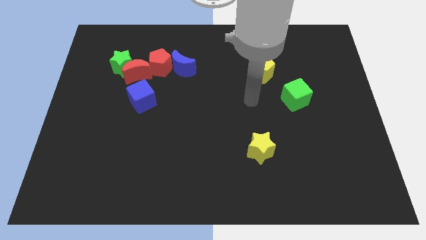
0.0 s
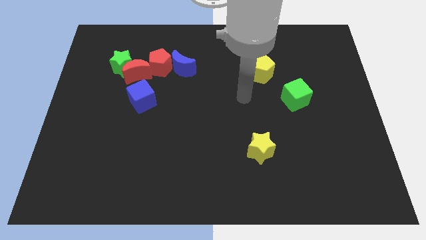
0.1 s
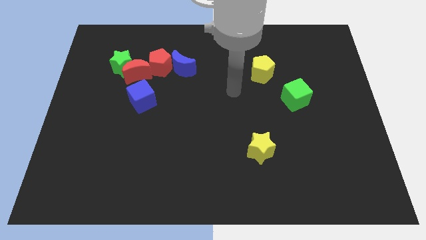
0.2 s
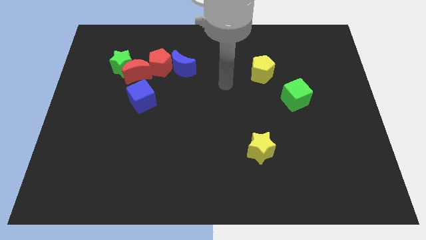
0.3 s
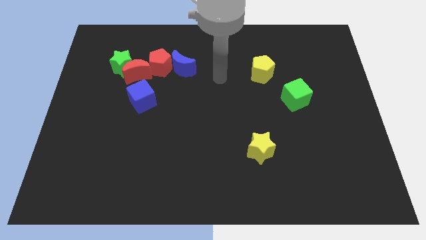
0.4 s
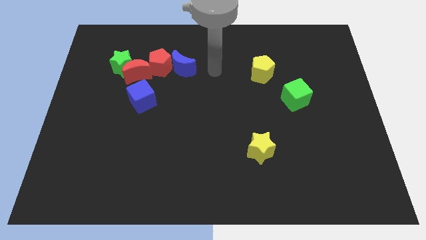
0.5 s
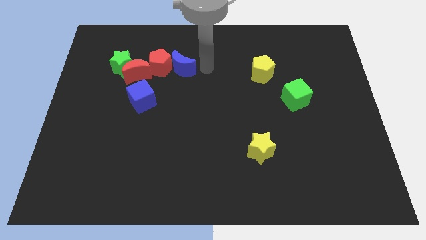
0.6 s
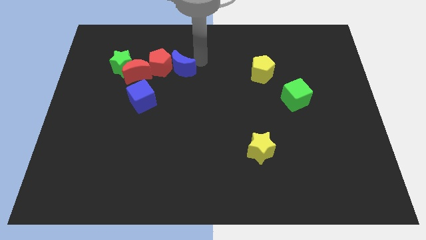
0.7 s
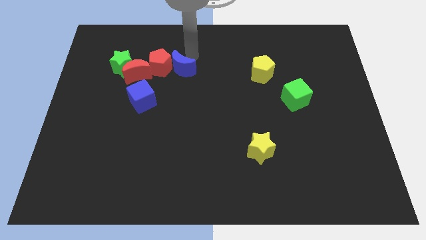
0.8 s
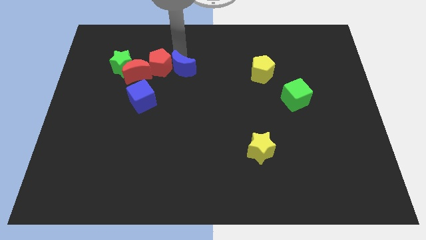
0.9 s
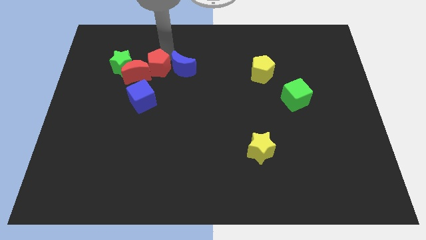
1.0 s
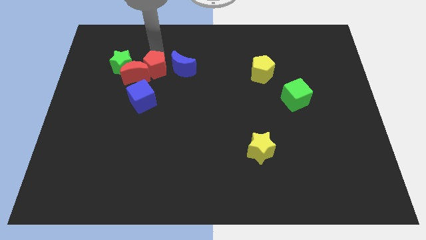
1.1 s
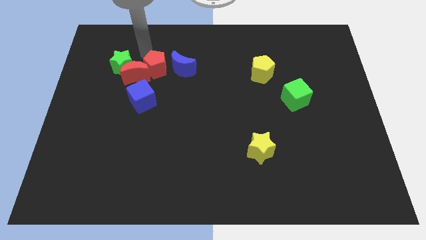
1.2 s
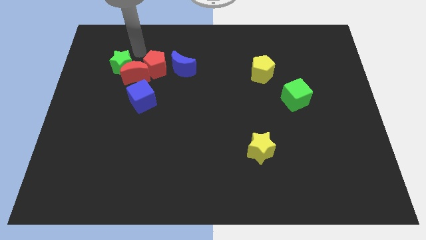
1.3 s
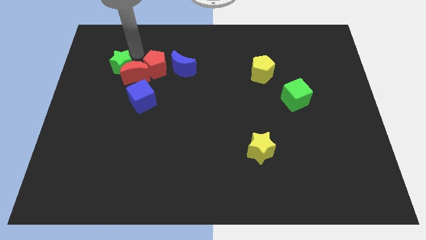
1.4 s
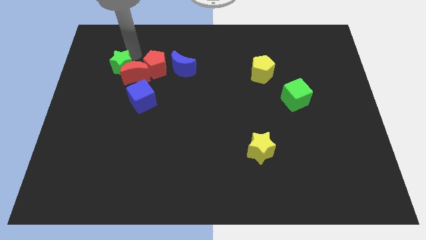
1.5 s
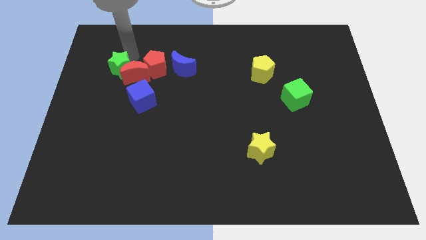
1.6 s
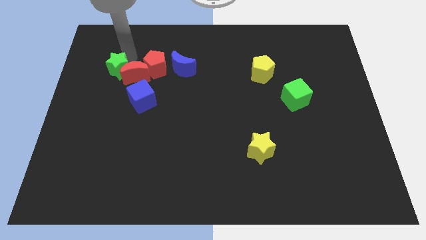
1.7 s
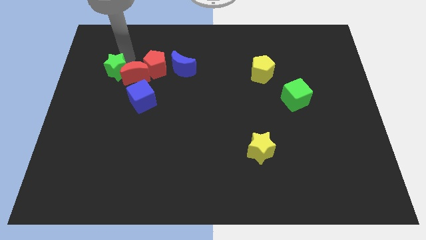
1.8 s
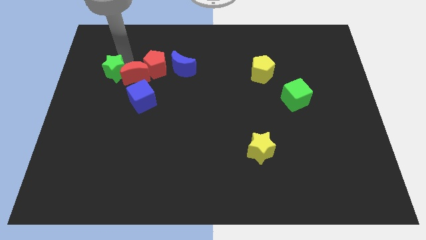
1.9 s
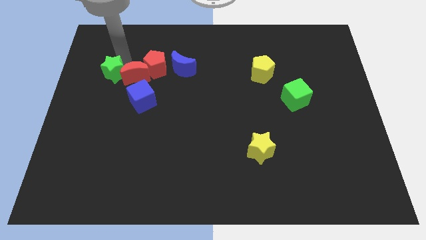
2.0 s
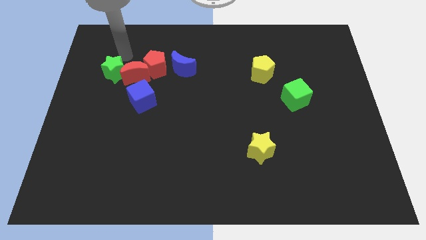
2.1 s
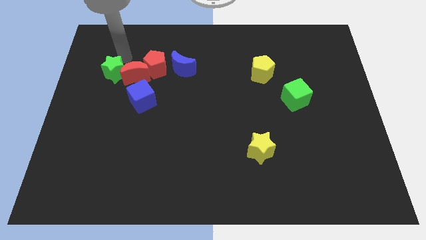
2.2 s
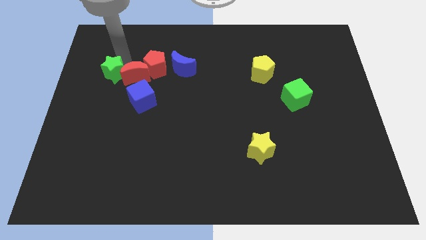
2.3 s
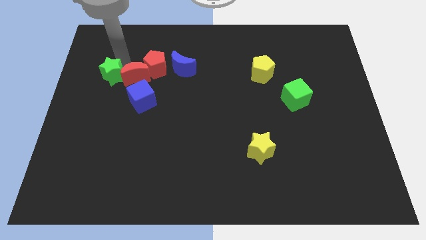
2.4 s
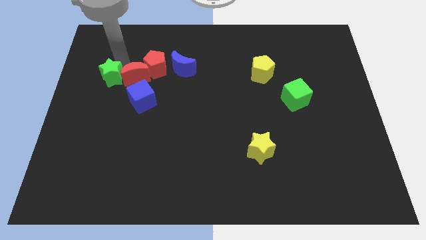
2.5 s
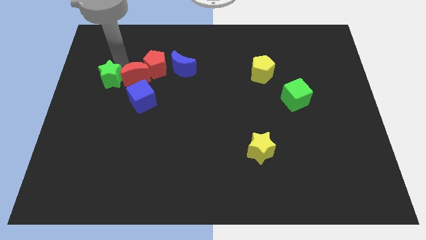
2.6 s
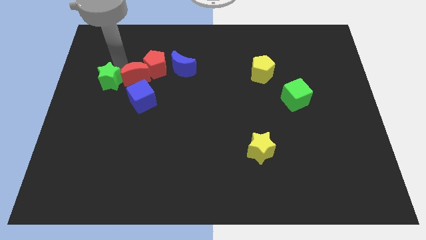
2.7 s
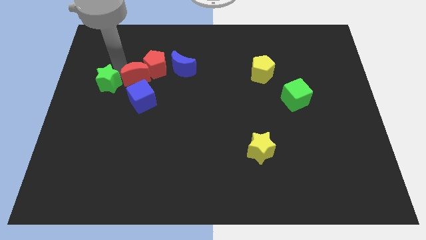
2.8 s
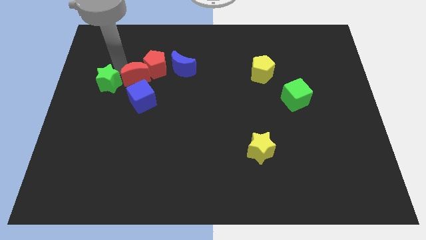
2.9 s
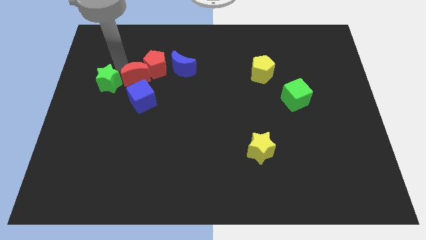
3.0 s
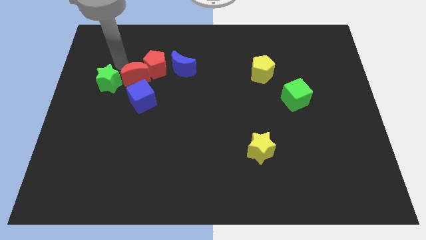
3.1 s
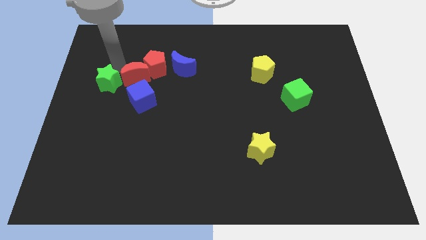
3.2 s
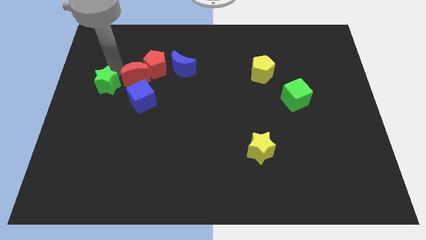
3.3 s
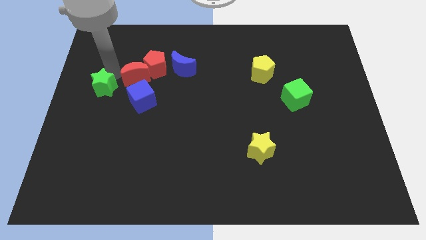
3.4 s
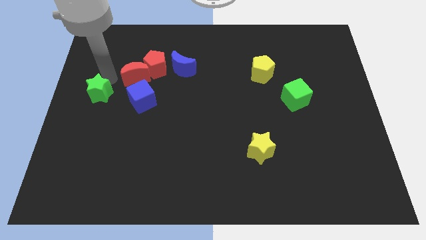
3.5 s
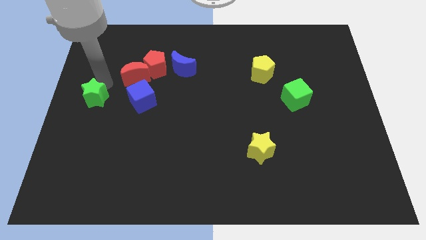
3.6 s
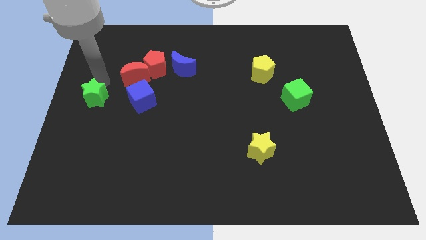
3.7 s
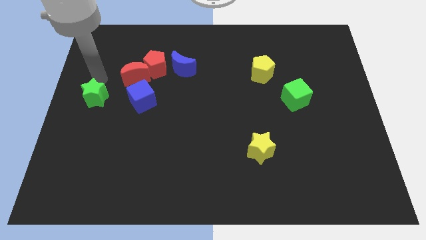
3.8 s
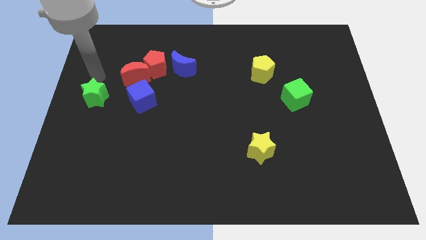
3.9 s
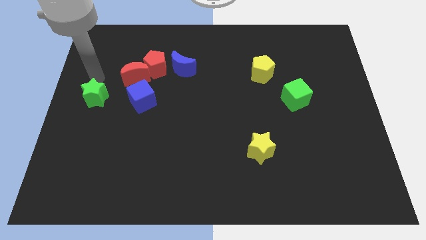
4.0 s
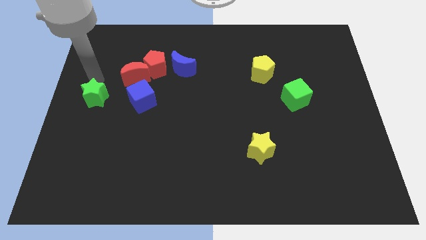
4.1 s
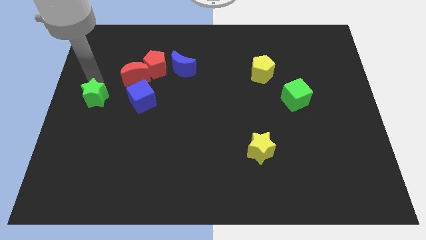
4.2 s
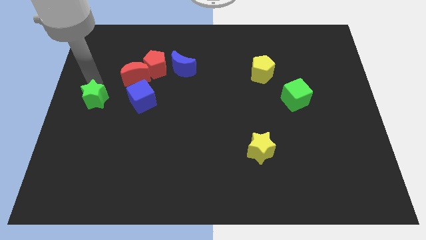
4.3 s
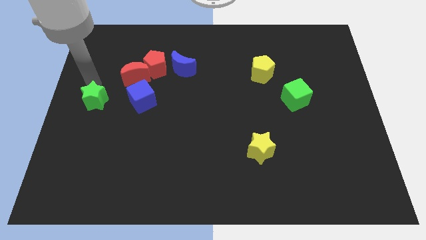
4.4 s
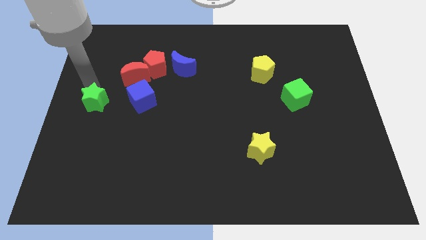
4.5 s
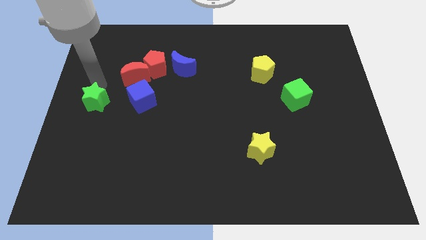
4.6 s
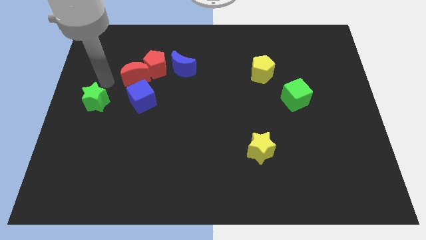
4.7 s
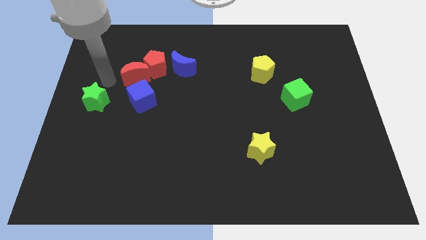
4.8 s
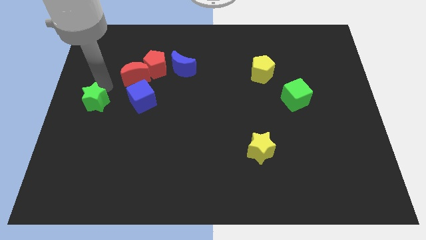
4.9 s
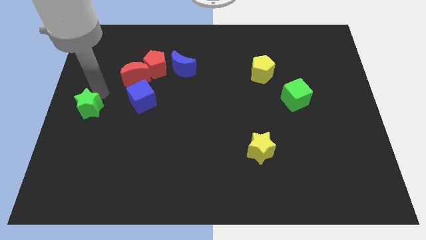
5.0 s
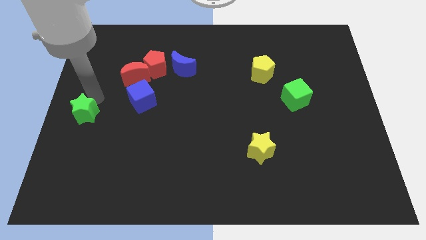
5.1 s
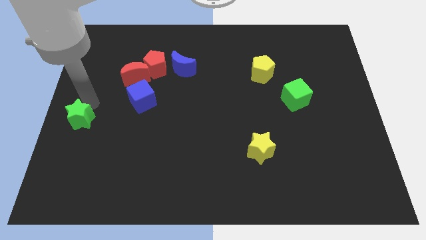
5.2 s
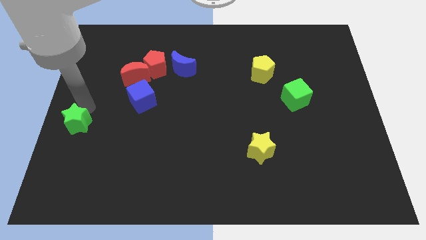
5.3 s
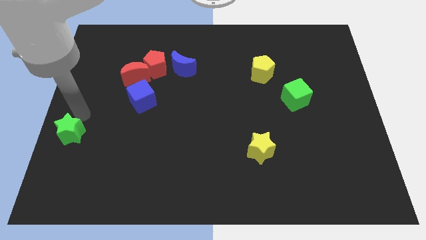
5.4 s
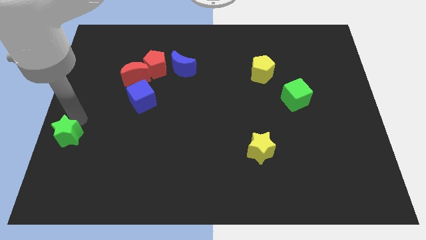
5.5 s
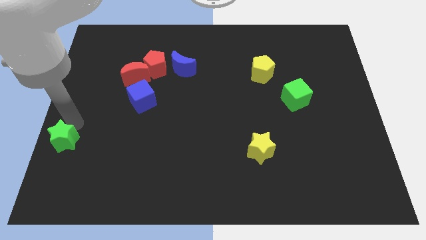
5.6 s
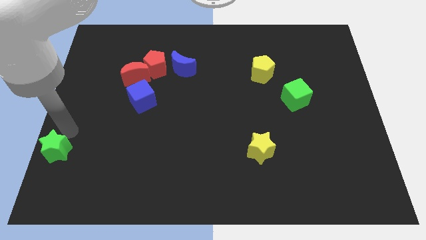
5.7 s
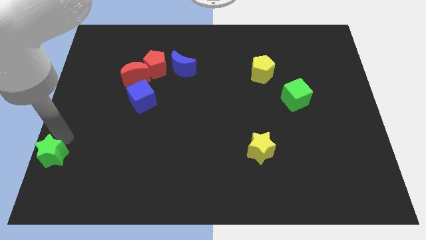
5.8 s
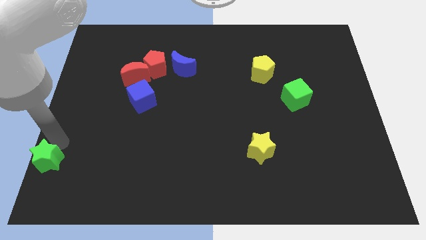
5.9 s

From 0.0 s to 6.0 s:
move the green star to the bottom left of the board

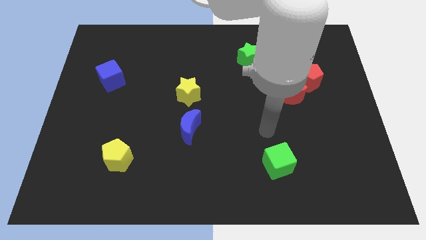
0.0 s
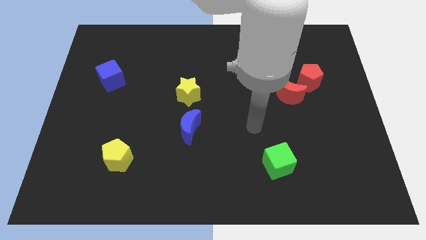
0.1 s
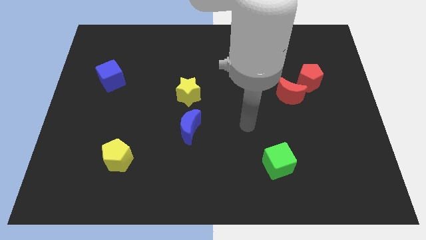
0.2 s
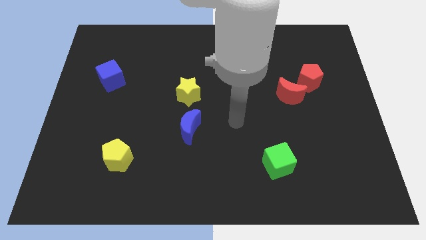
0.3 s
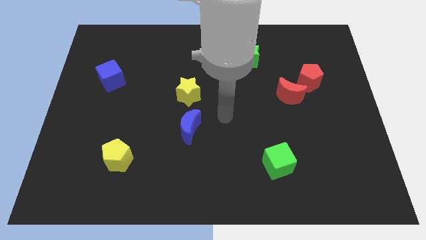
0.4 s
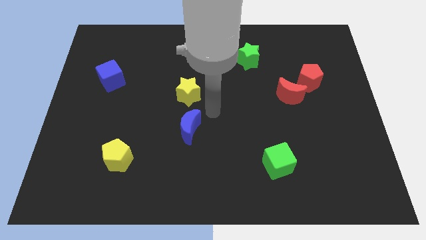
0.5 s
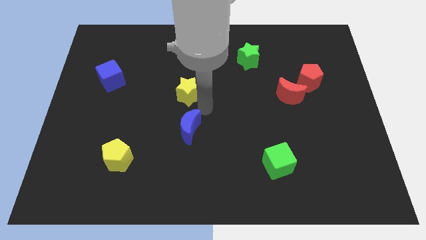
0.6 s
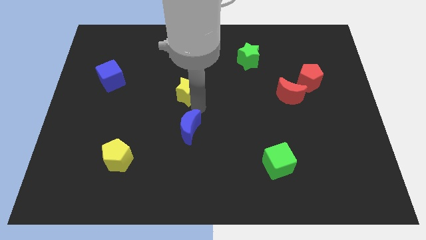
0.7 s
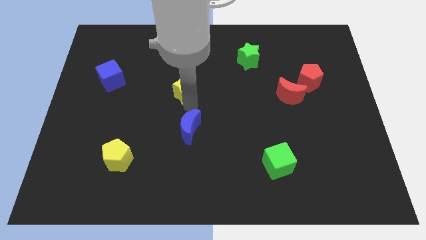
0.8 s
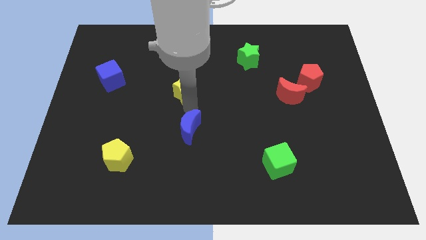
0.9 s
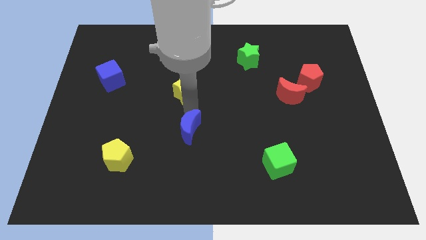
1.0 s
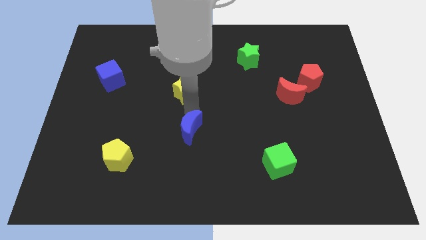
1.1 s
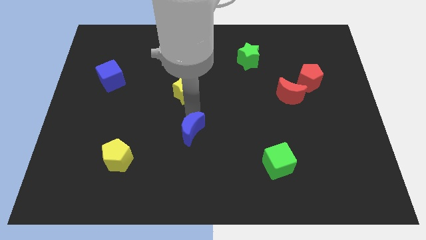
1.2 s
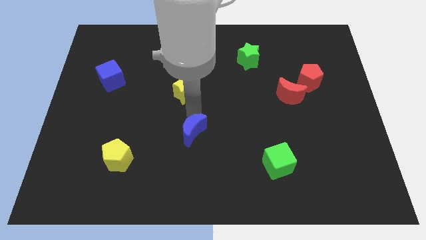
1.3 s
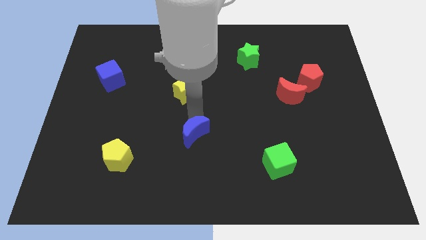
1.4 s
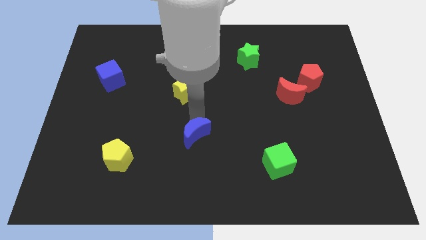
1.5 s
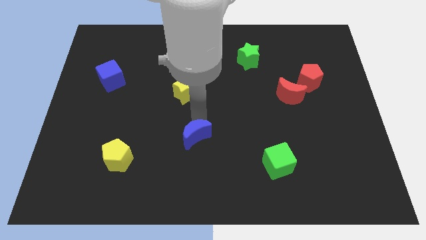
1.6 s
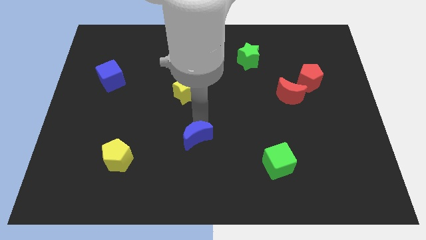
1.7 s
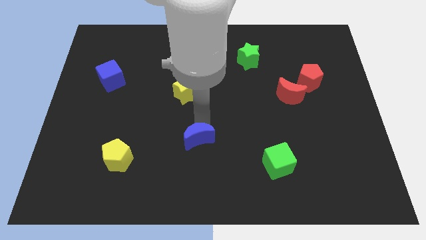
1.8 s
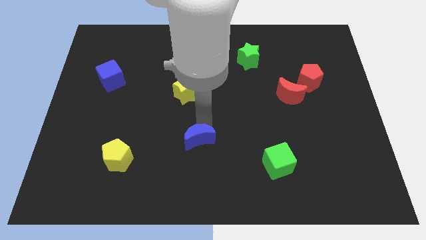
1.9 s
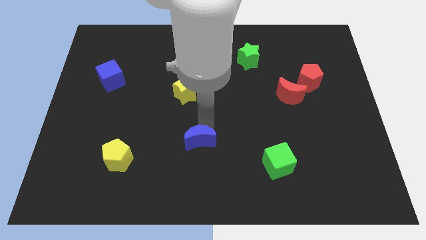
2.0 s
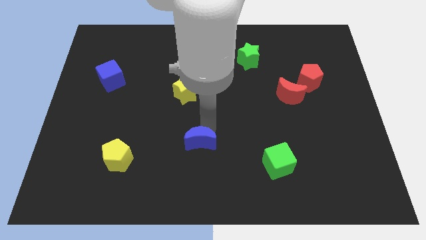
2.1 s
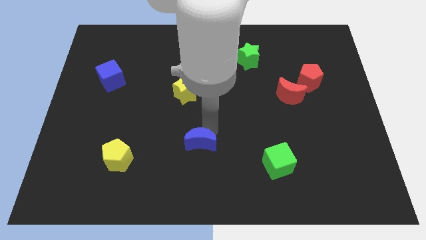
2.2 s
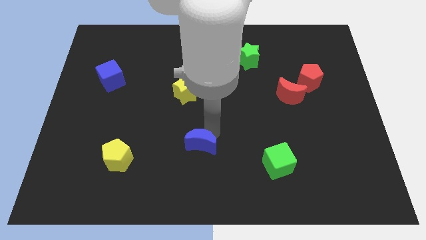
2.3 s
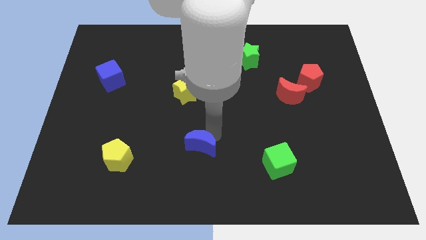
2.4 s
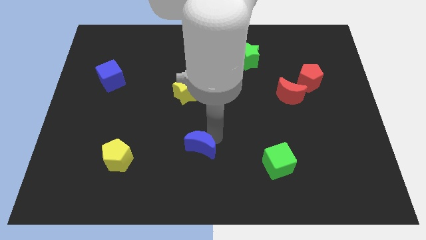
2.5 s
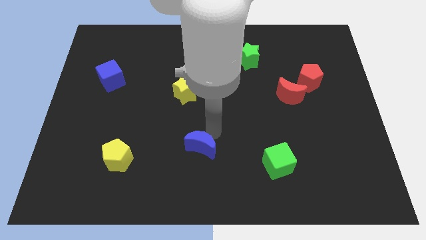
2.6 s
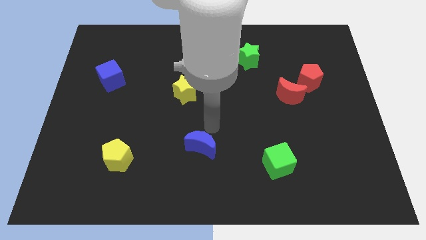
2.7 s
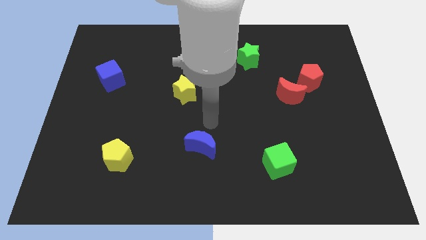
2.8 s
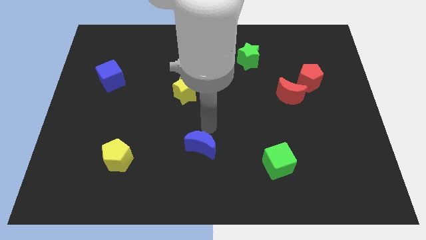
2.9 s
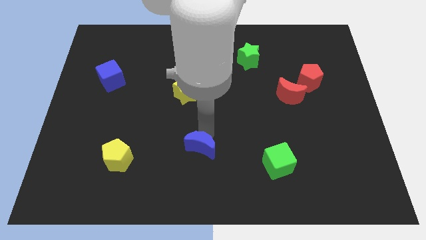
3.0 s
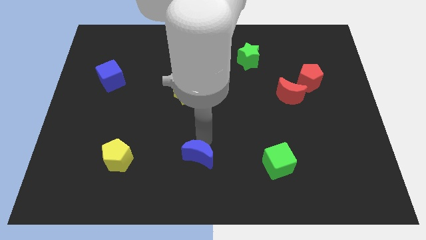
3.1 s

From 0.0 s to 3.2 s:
move the blue moon to the bottom side
